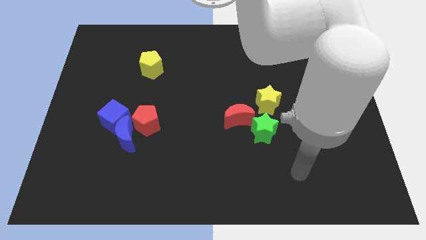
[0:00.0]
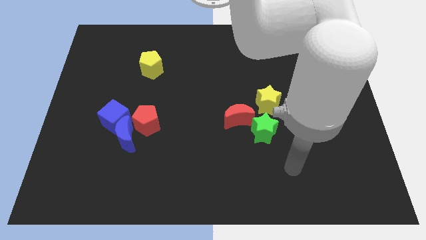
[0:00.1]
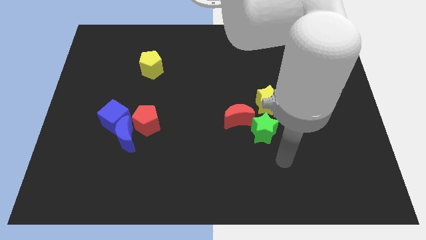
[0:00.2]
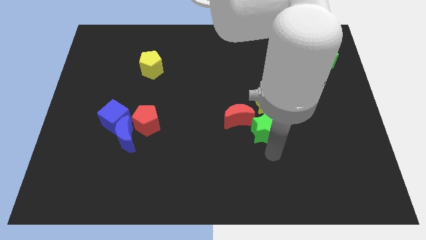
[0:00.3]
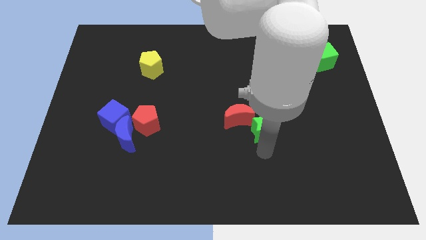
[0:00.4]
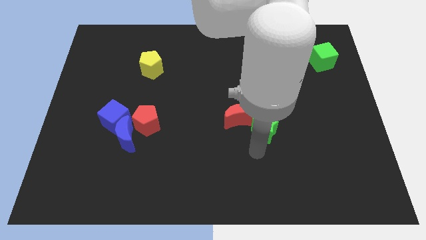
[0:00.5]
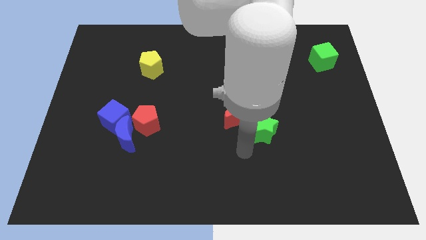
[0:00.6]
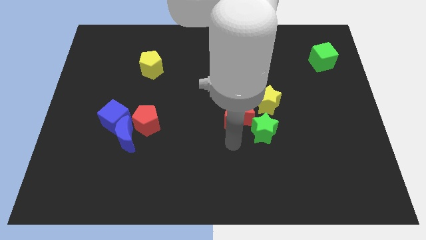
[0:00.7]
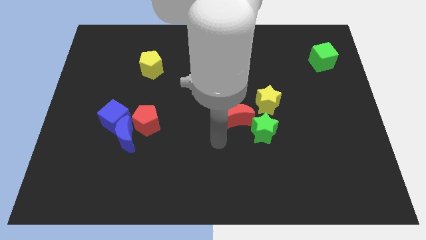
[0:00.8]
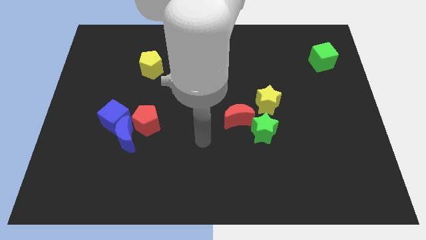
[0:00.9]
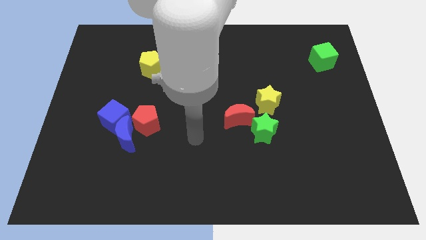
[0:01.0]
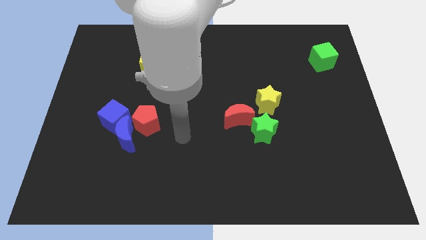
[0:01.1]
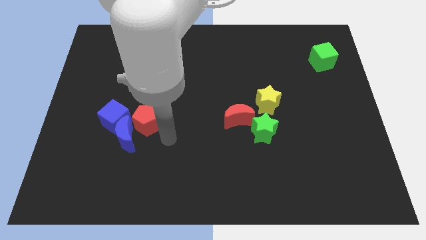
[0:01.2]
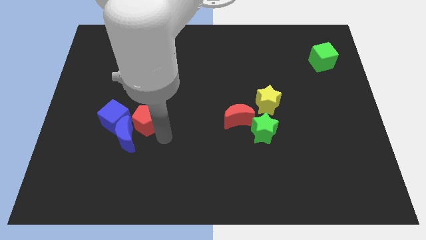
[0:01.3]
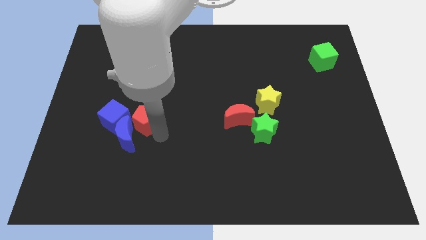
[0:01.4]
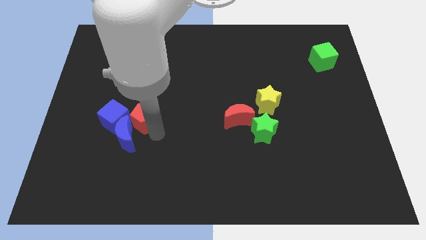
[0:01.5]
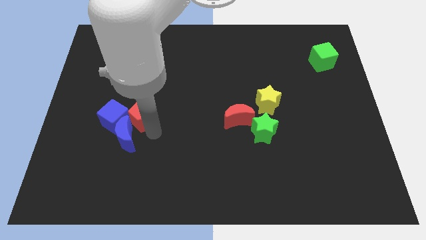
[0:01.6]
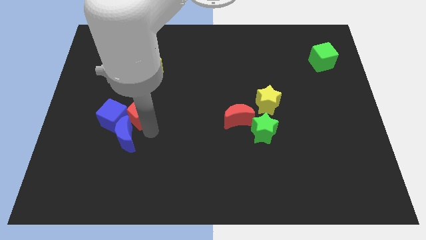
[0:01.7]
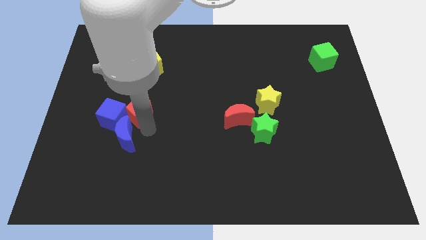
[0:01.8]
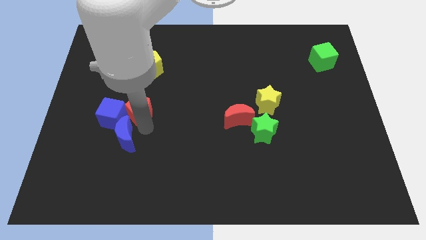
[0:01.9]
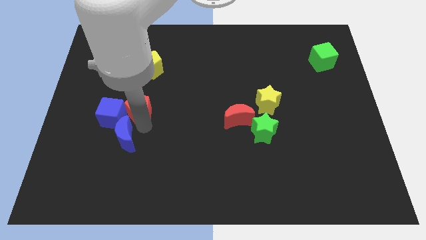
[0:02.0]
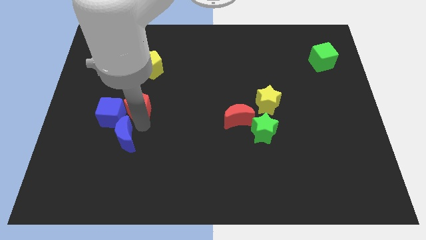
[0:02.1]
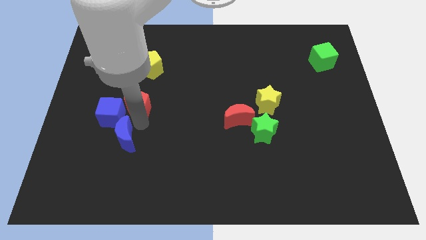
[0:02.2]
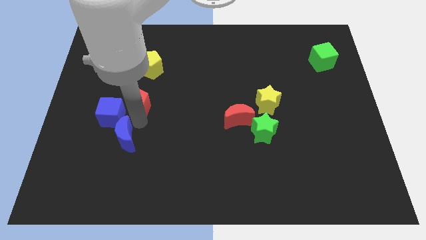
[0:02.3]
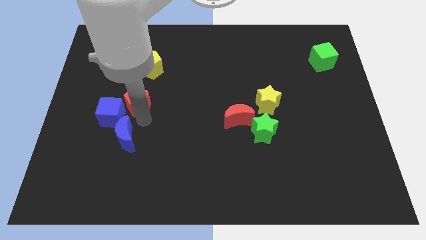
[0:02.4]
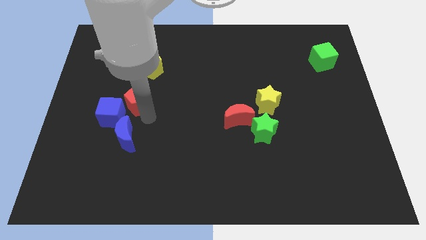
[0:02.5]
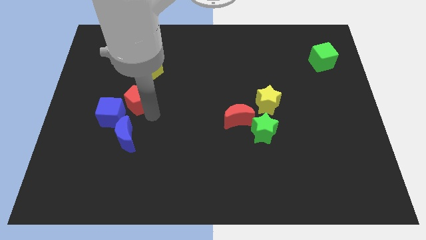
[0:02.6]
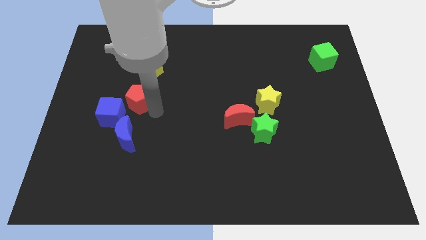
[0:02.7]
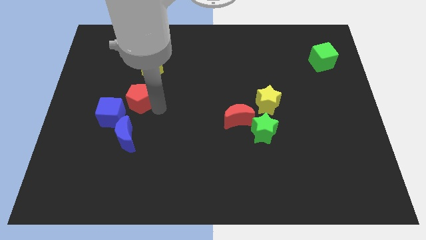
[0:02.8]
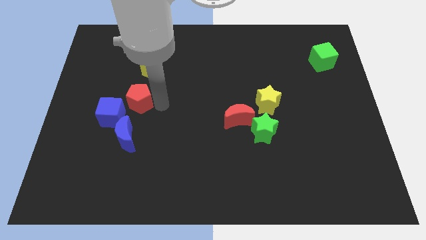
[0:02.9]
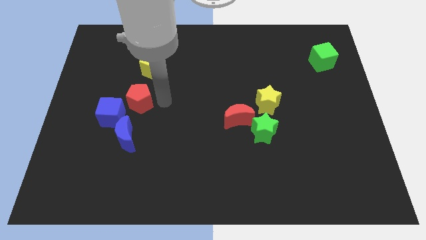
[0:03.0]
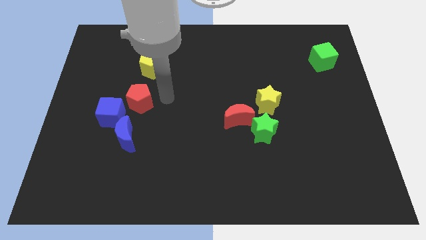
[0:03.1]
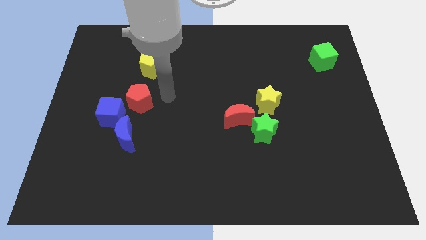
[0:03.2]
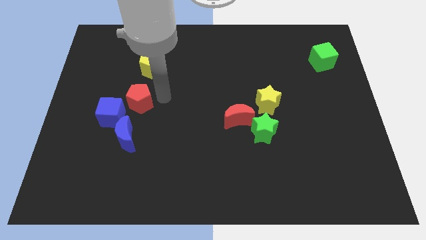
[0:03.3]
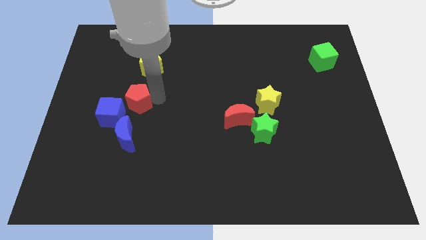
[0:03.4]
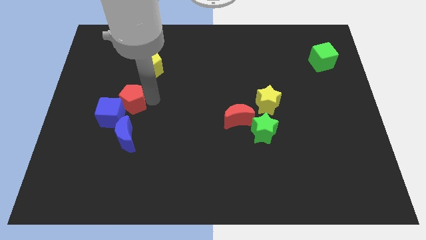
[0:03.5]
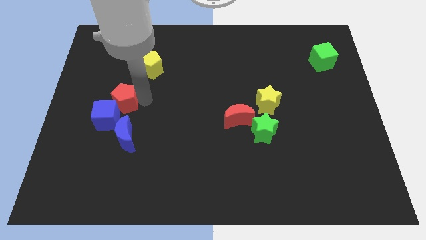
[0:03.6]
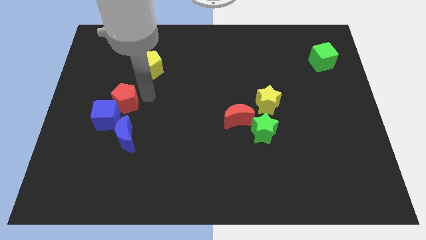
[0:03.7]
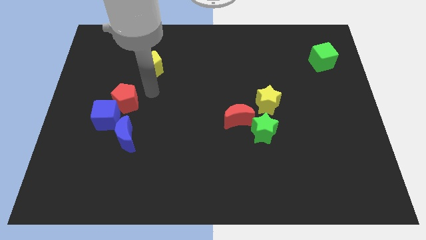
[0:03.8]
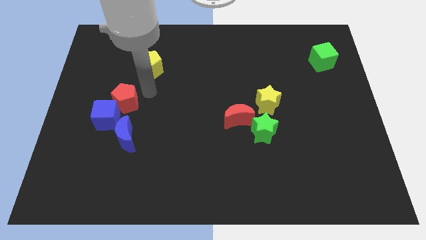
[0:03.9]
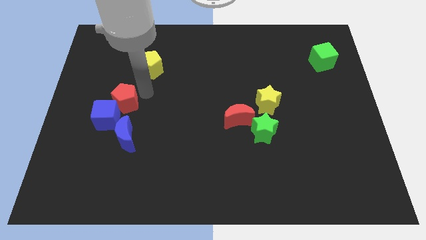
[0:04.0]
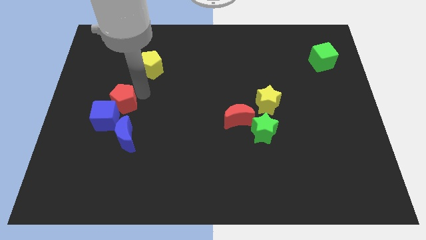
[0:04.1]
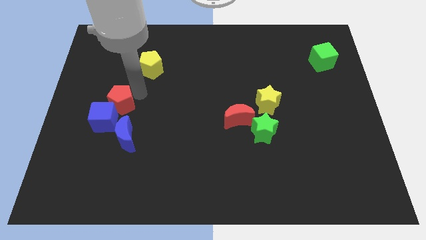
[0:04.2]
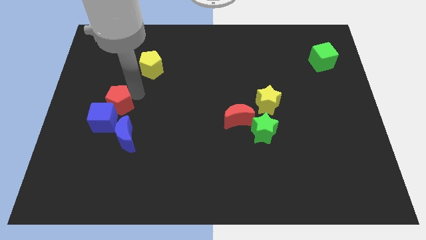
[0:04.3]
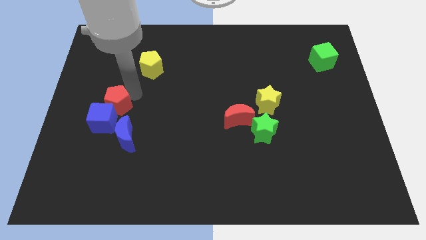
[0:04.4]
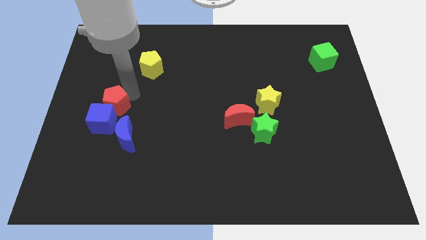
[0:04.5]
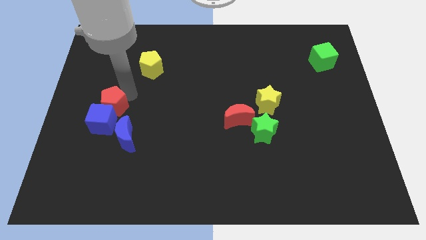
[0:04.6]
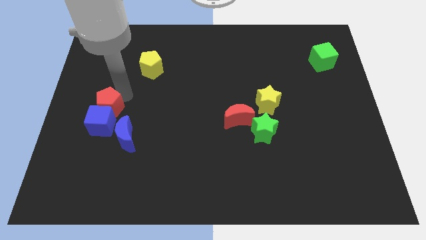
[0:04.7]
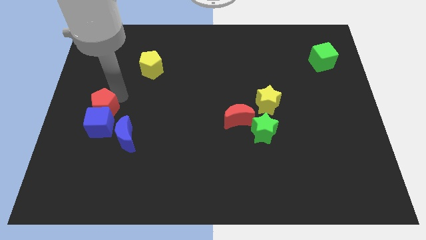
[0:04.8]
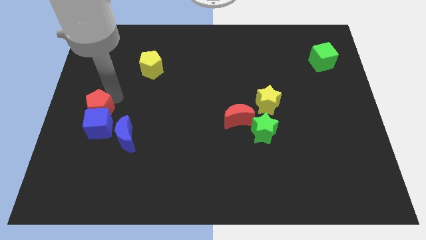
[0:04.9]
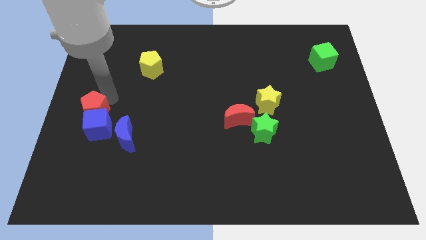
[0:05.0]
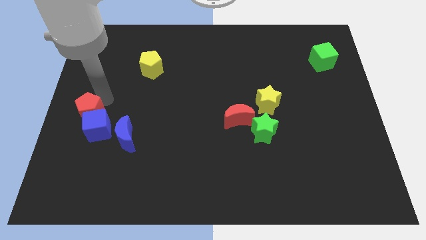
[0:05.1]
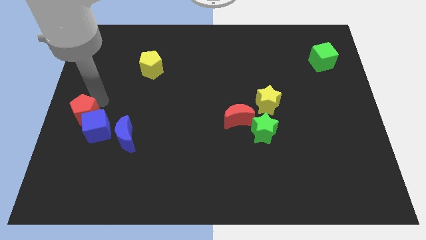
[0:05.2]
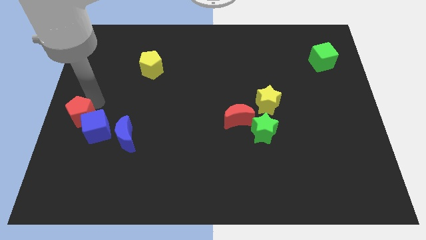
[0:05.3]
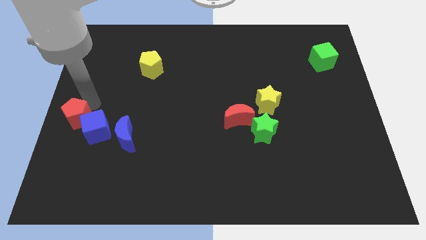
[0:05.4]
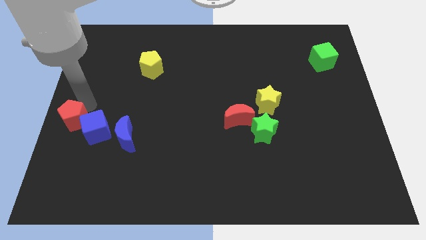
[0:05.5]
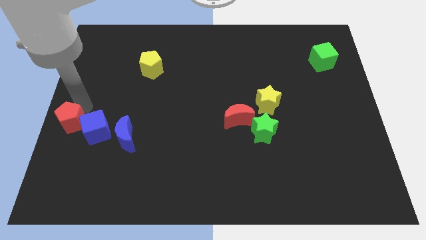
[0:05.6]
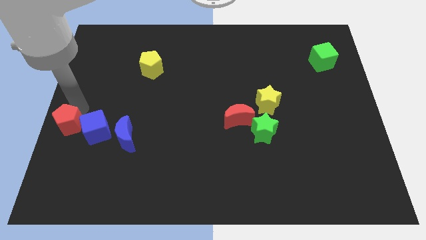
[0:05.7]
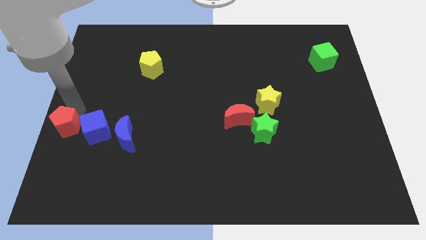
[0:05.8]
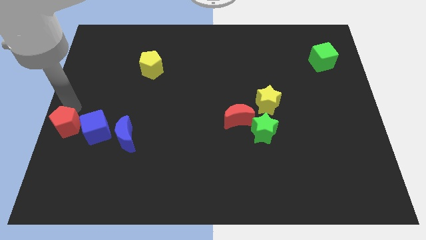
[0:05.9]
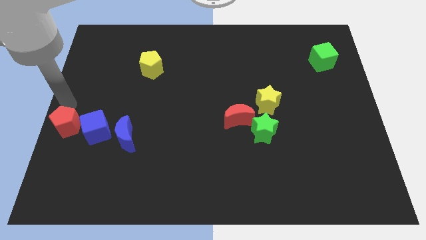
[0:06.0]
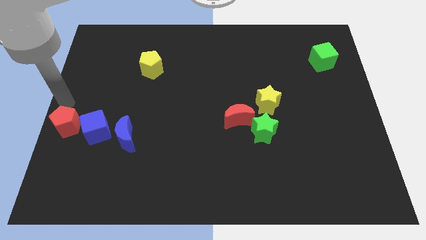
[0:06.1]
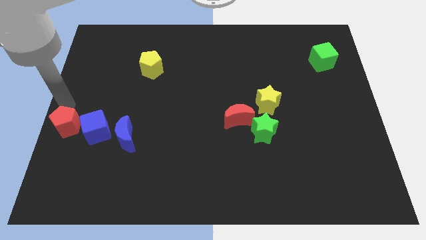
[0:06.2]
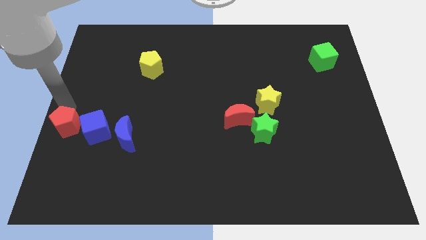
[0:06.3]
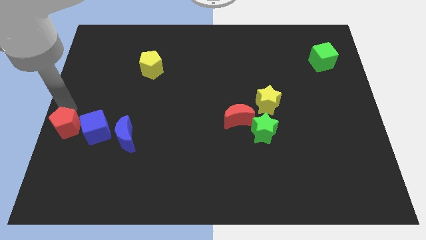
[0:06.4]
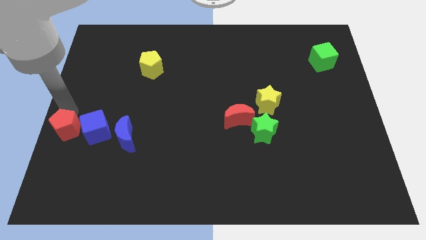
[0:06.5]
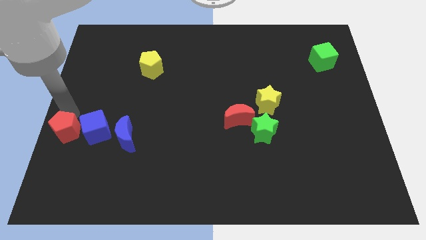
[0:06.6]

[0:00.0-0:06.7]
move the red pentagon to the bottom left side of the blue cube
